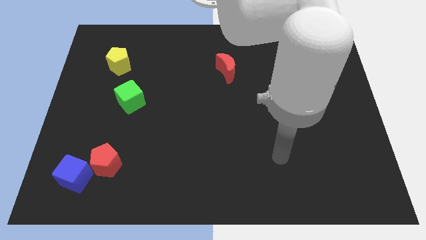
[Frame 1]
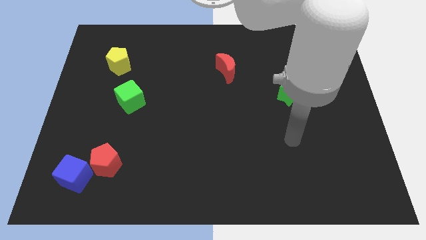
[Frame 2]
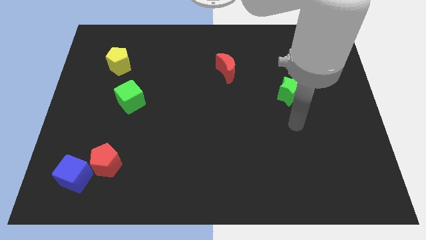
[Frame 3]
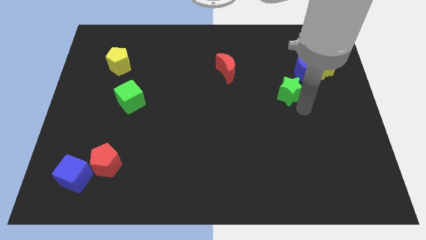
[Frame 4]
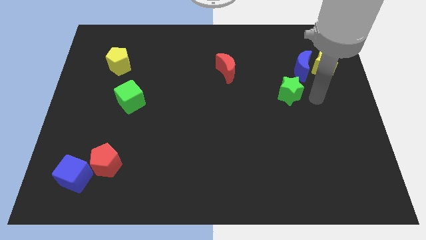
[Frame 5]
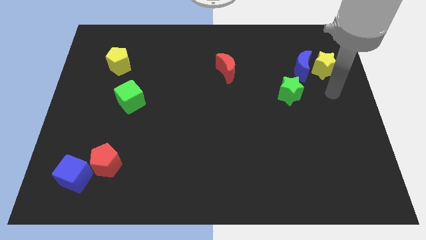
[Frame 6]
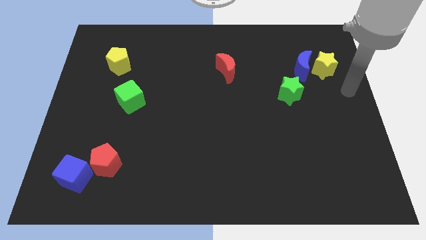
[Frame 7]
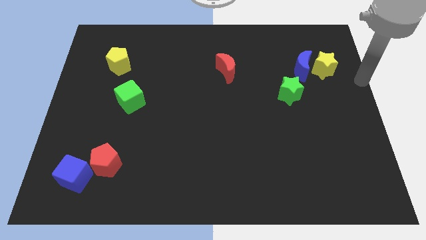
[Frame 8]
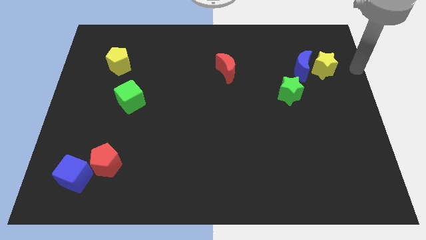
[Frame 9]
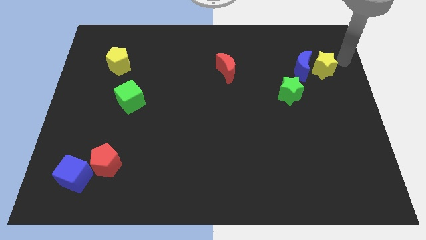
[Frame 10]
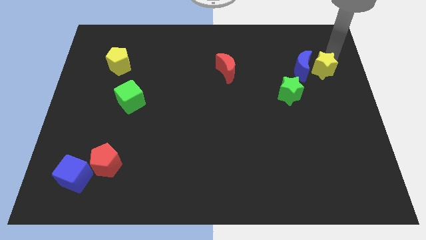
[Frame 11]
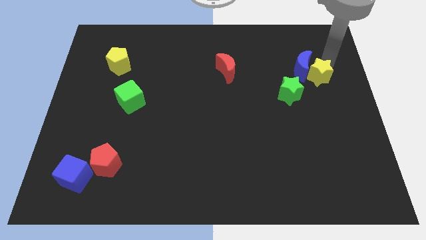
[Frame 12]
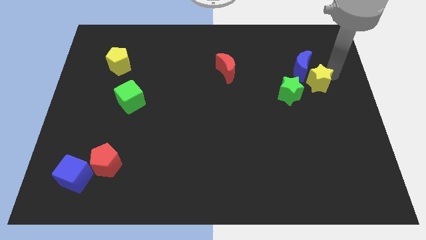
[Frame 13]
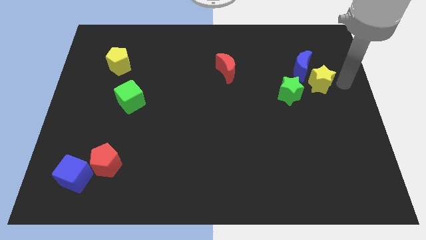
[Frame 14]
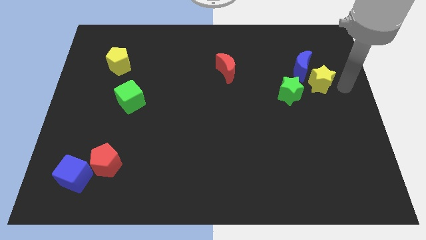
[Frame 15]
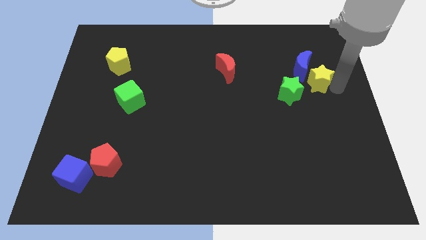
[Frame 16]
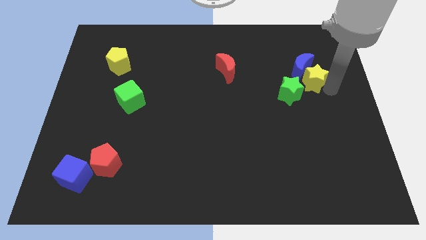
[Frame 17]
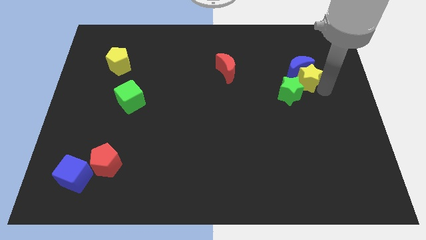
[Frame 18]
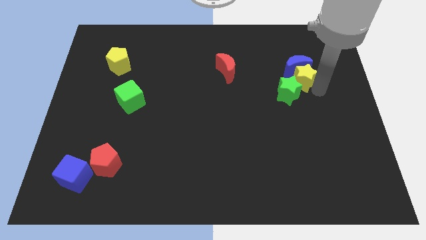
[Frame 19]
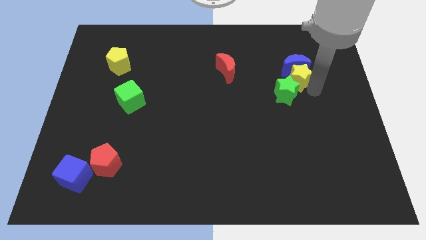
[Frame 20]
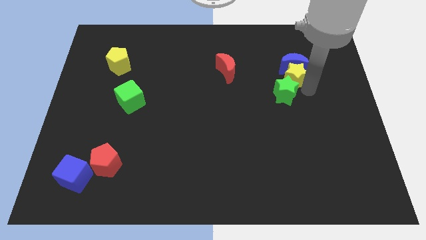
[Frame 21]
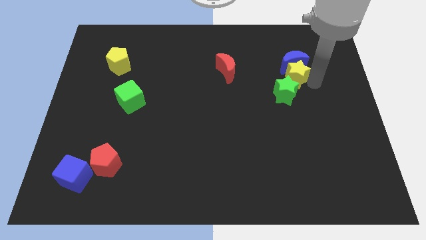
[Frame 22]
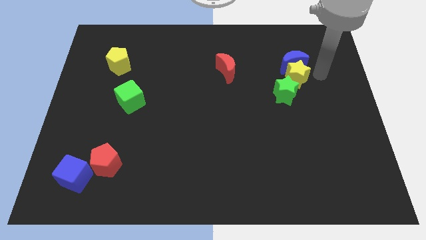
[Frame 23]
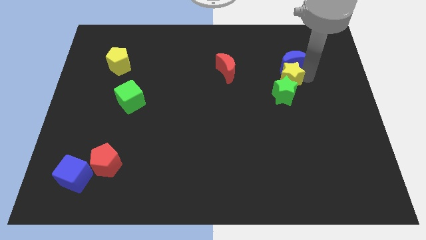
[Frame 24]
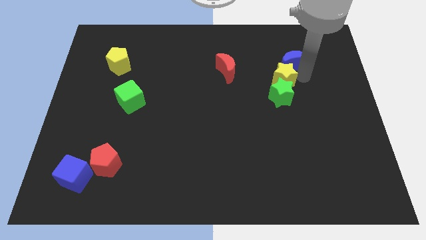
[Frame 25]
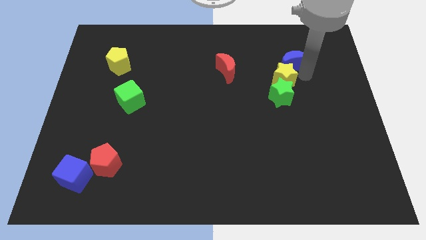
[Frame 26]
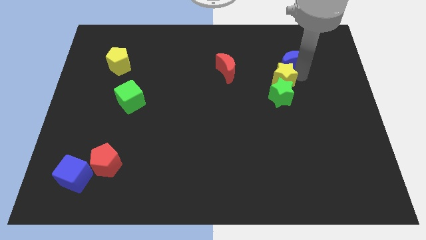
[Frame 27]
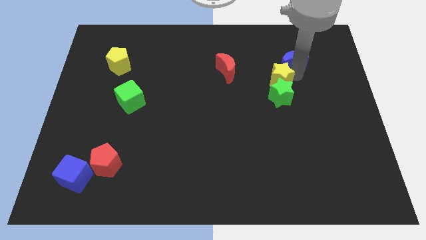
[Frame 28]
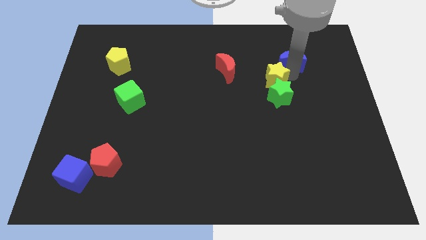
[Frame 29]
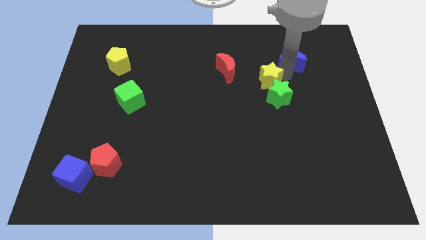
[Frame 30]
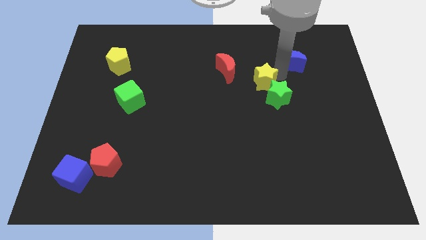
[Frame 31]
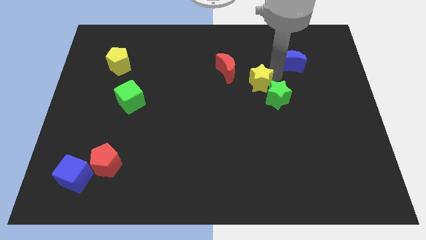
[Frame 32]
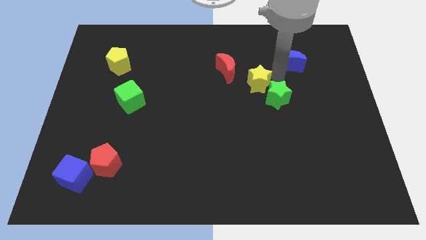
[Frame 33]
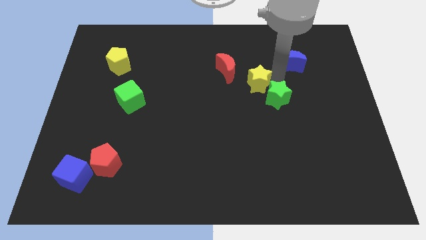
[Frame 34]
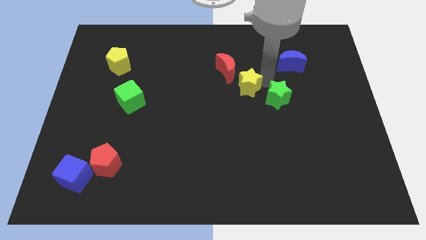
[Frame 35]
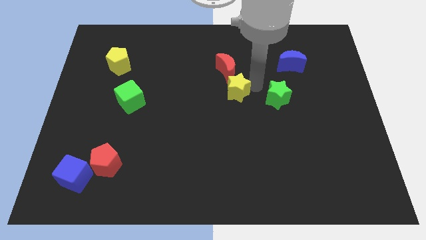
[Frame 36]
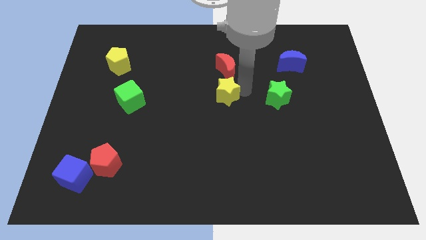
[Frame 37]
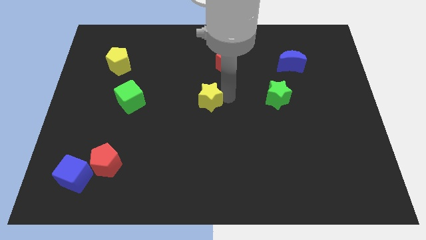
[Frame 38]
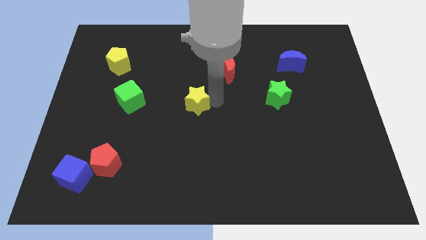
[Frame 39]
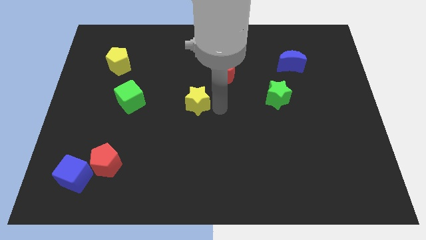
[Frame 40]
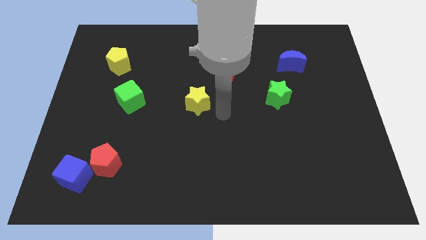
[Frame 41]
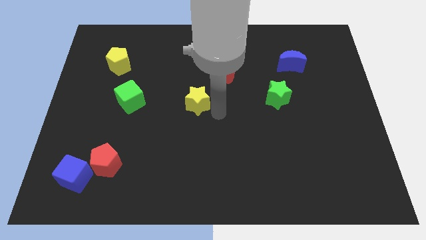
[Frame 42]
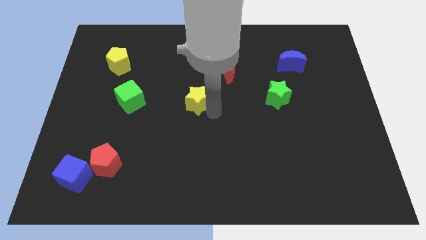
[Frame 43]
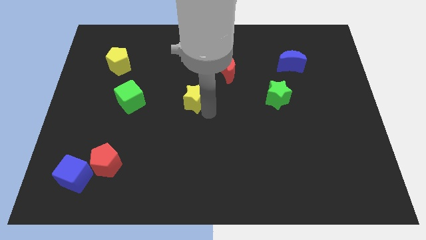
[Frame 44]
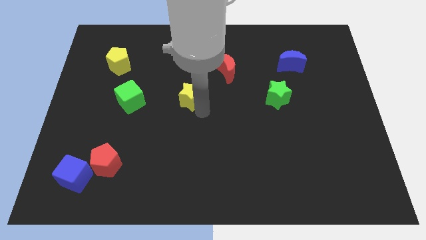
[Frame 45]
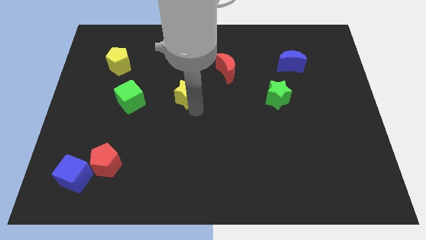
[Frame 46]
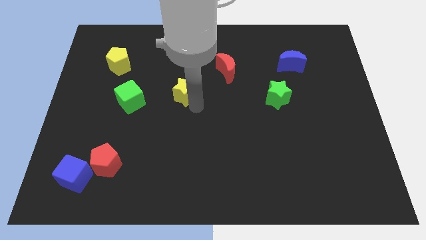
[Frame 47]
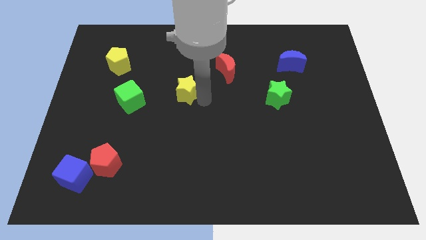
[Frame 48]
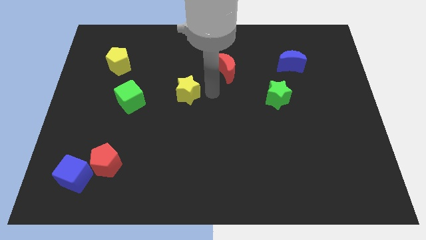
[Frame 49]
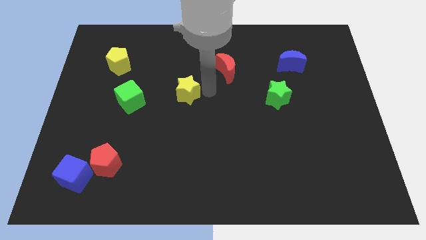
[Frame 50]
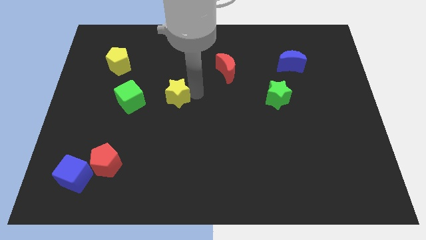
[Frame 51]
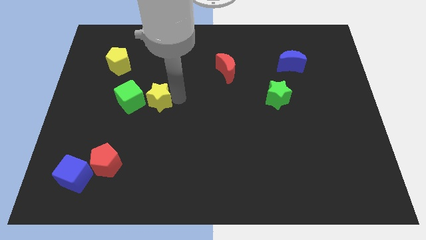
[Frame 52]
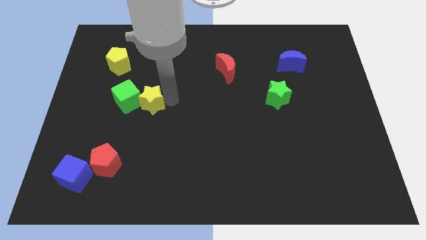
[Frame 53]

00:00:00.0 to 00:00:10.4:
move the yellow star close to the green cube

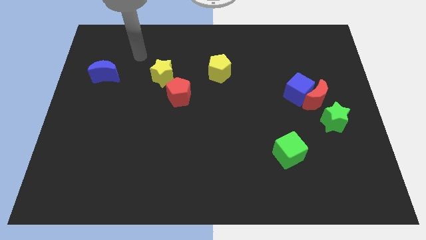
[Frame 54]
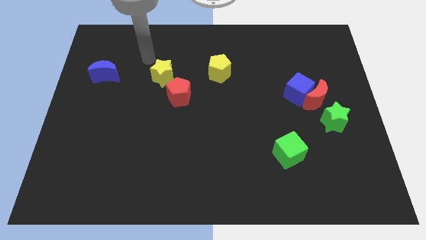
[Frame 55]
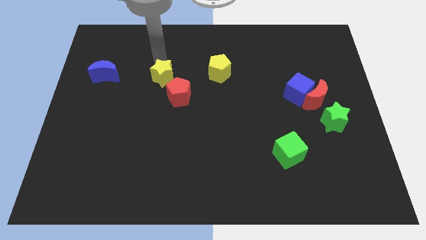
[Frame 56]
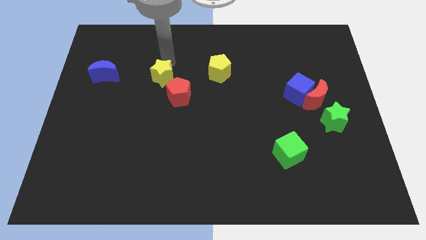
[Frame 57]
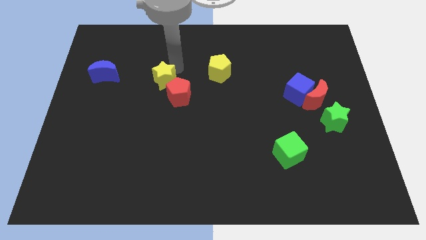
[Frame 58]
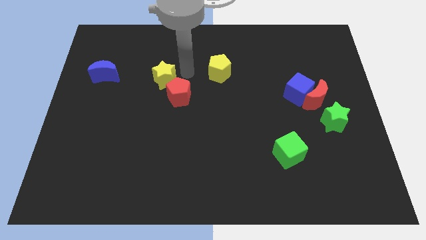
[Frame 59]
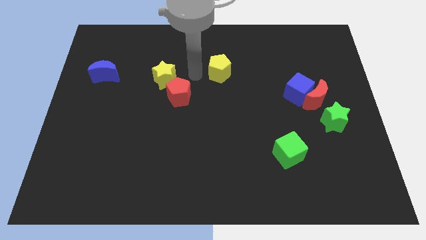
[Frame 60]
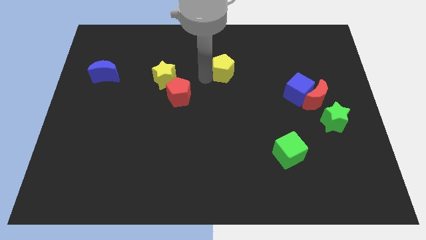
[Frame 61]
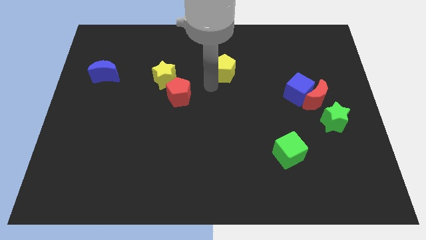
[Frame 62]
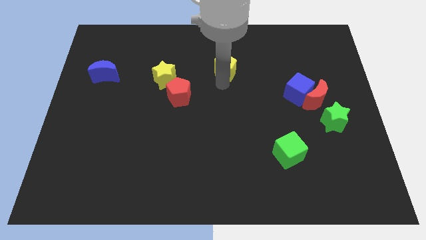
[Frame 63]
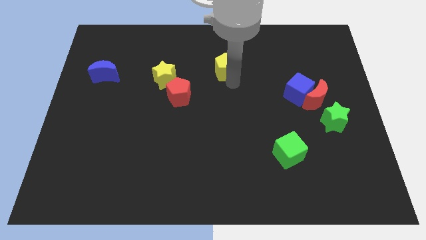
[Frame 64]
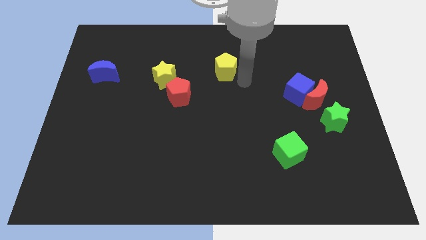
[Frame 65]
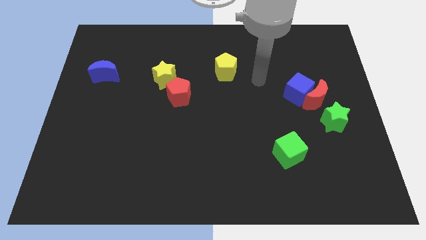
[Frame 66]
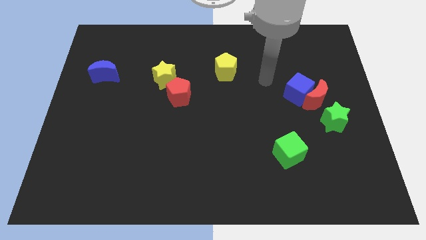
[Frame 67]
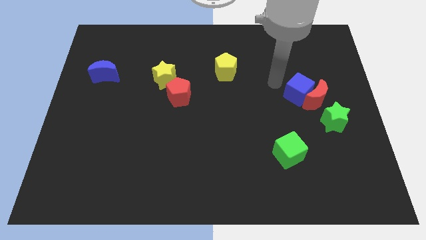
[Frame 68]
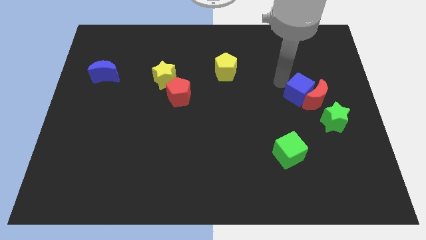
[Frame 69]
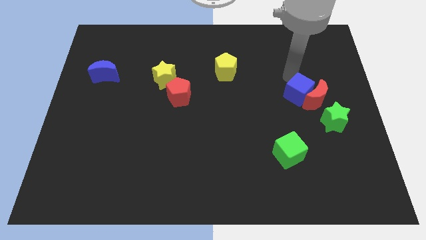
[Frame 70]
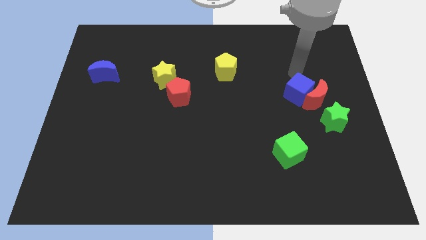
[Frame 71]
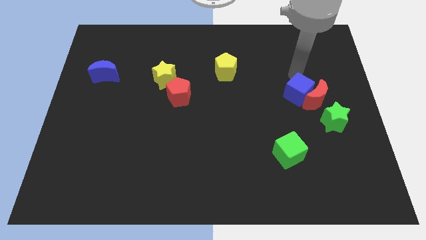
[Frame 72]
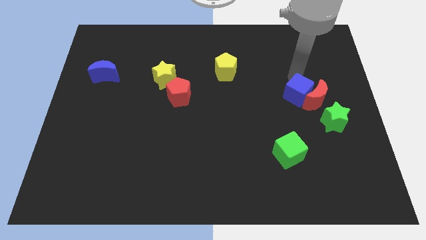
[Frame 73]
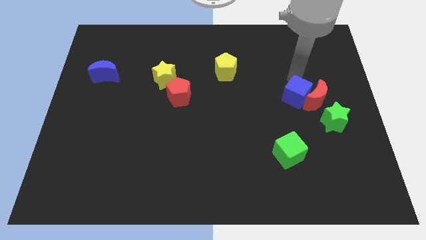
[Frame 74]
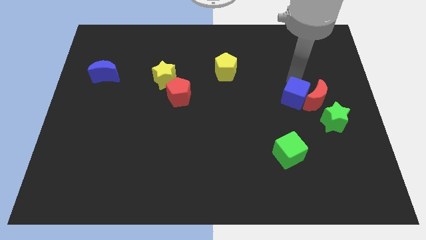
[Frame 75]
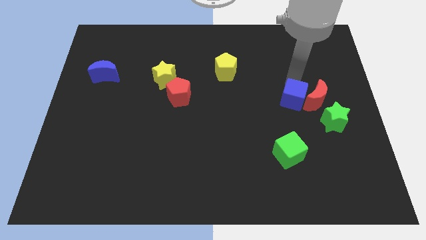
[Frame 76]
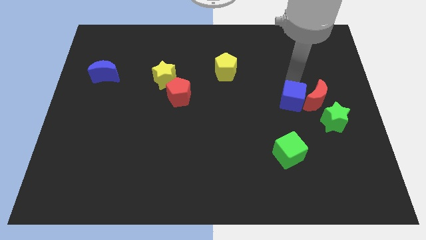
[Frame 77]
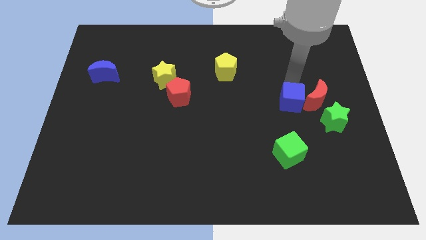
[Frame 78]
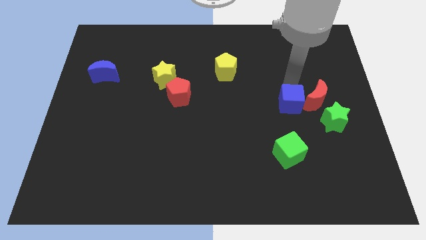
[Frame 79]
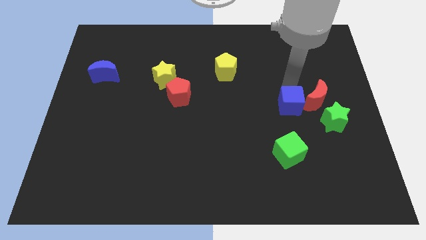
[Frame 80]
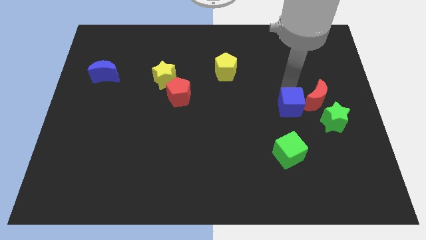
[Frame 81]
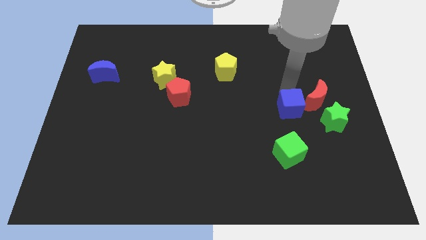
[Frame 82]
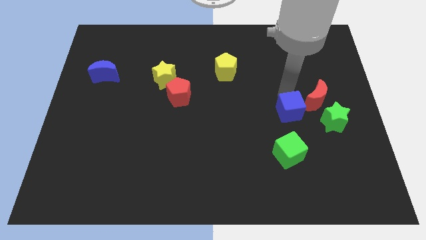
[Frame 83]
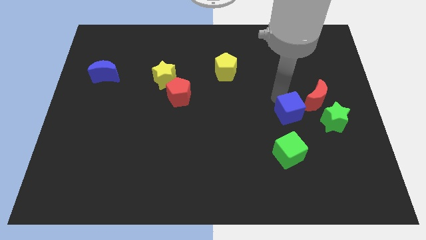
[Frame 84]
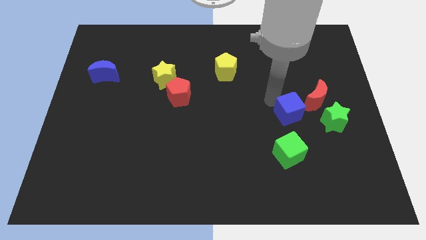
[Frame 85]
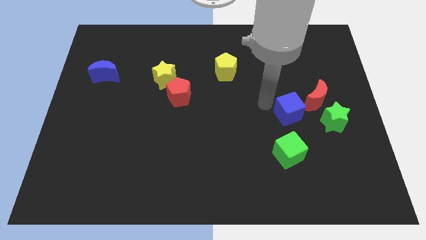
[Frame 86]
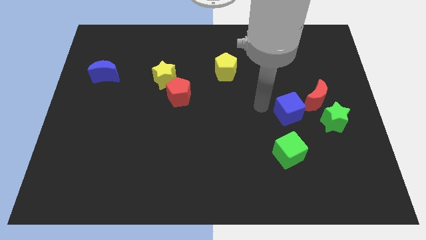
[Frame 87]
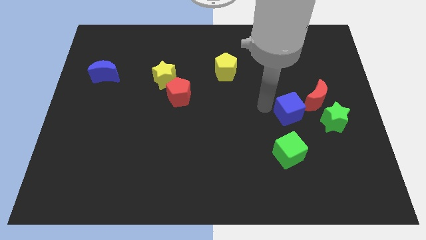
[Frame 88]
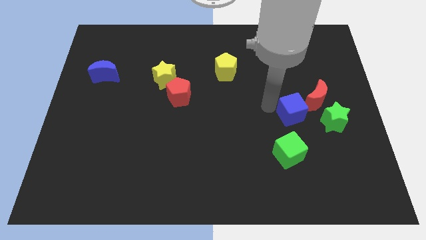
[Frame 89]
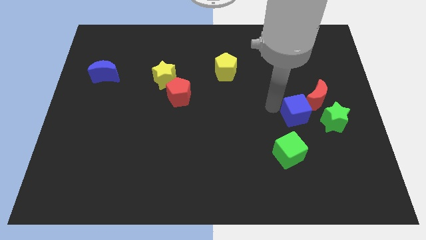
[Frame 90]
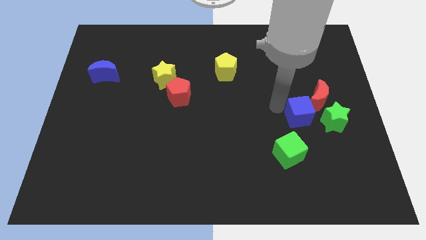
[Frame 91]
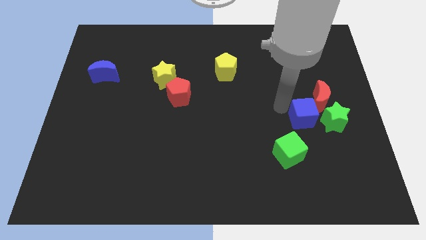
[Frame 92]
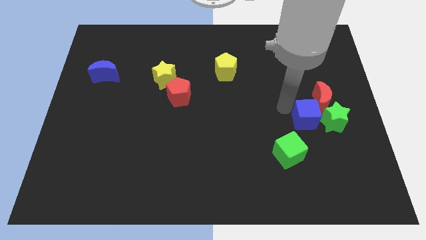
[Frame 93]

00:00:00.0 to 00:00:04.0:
push the blue cube towards the green star
